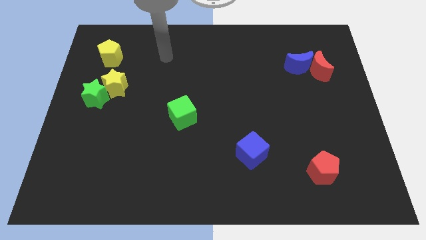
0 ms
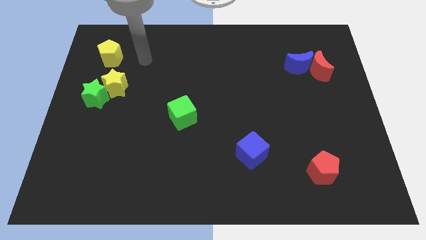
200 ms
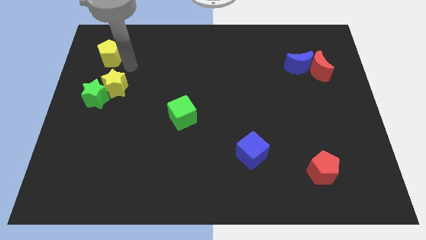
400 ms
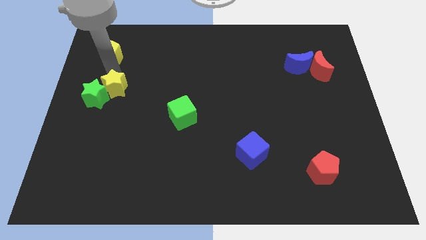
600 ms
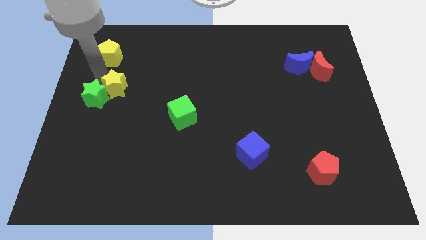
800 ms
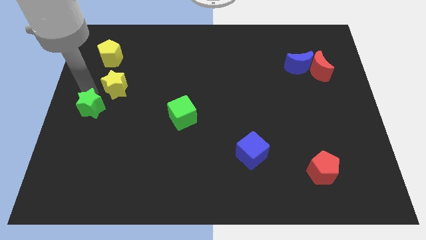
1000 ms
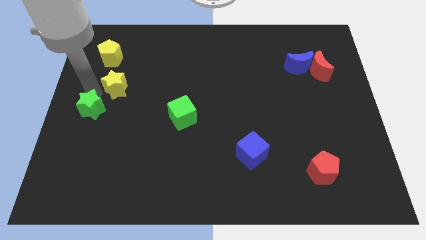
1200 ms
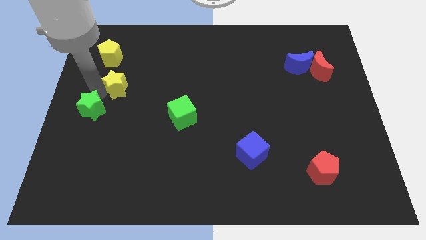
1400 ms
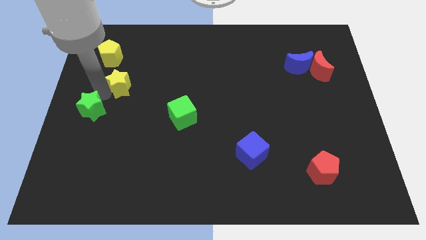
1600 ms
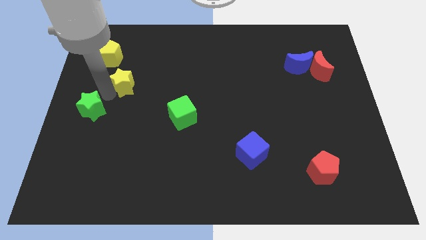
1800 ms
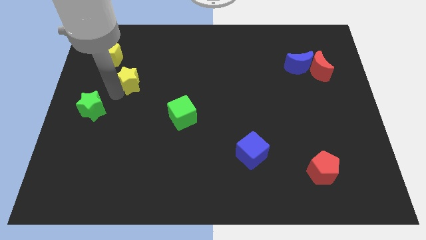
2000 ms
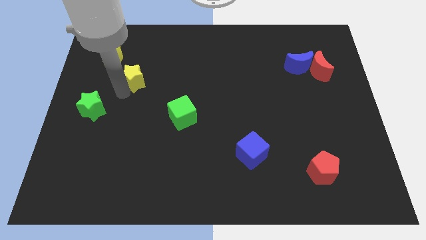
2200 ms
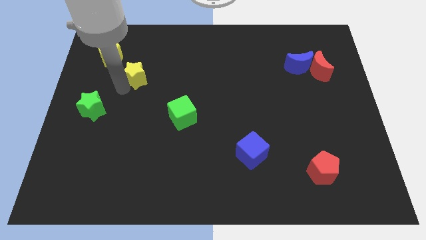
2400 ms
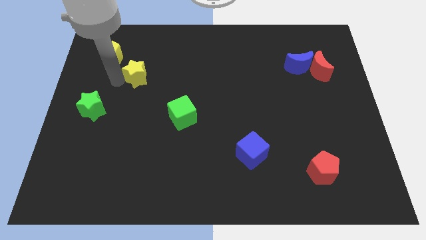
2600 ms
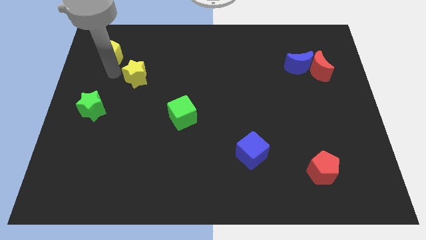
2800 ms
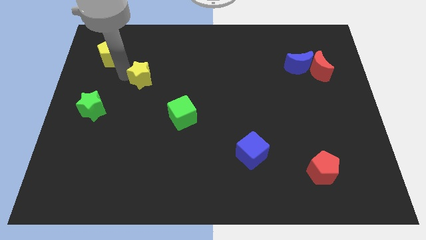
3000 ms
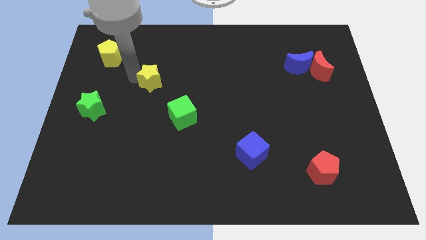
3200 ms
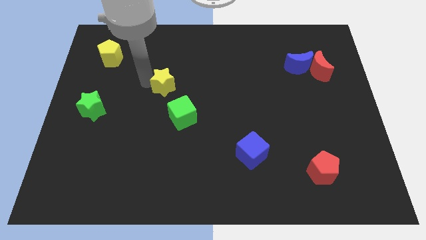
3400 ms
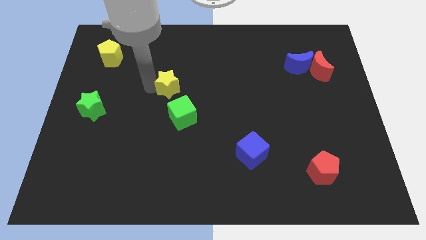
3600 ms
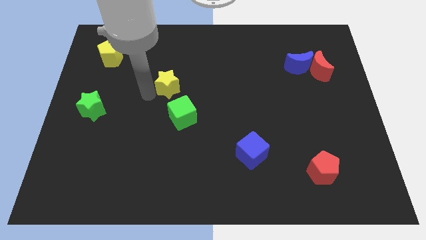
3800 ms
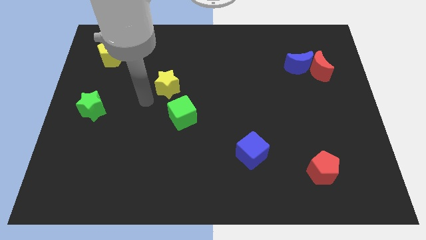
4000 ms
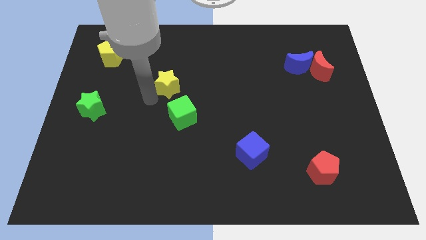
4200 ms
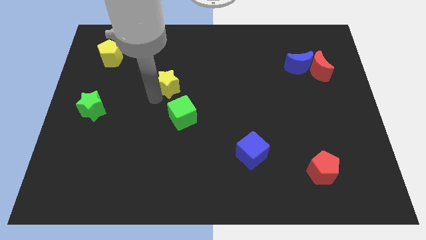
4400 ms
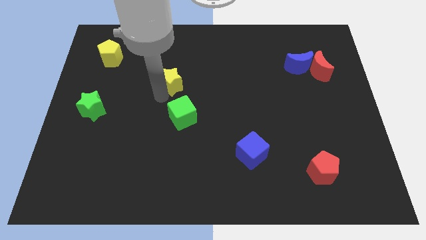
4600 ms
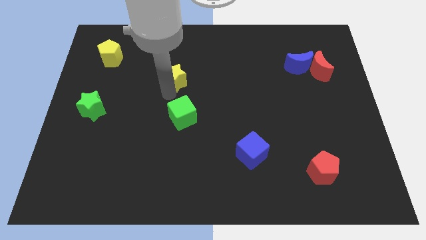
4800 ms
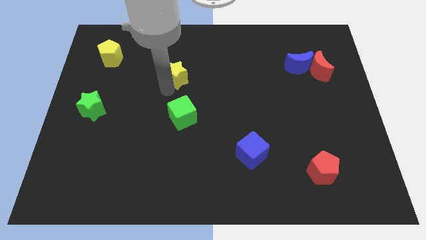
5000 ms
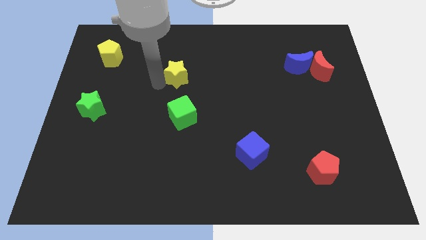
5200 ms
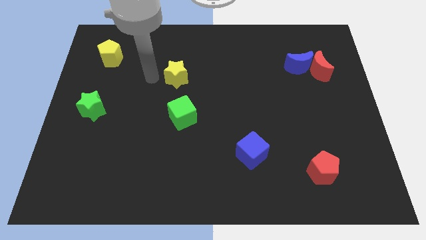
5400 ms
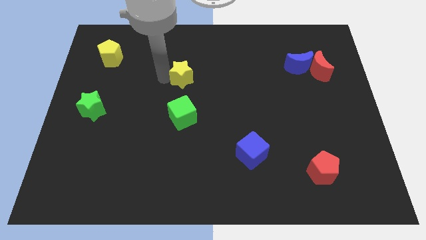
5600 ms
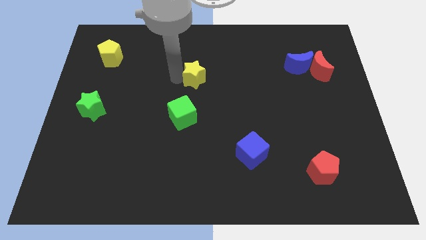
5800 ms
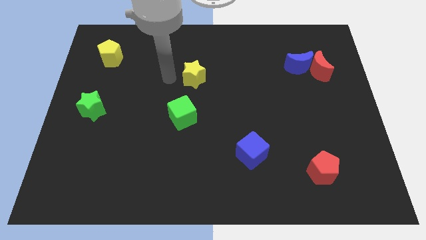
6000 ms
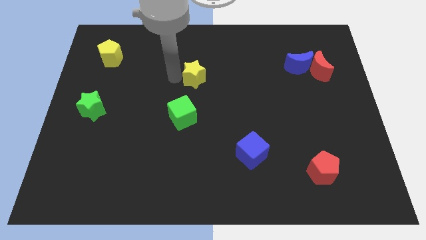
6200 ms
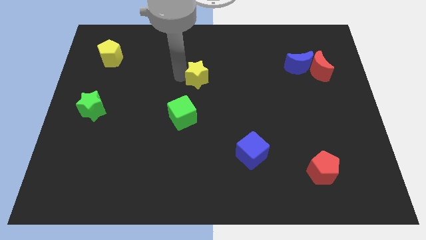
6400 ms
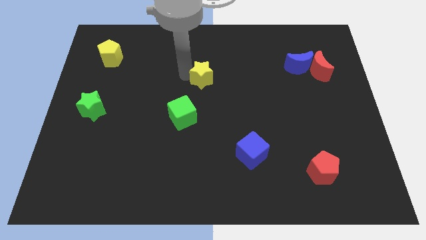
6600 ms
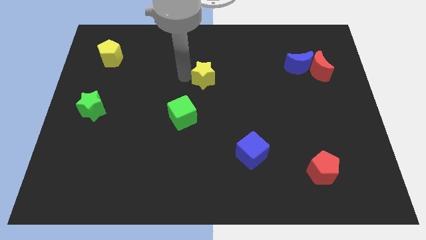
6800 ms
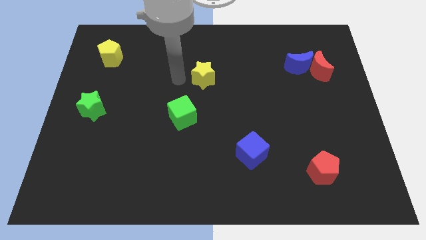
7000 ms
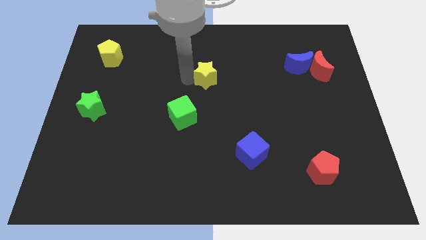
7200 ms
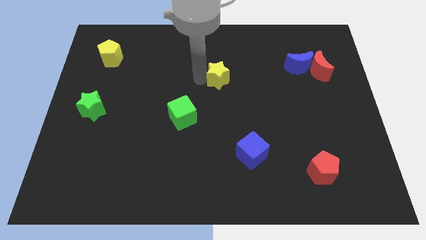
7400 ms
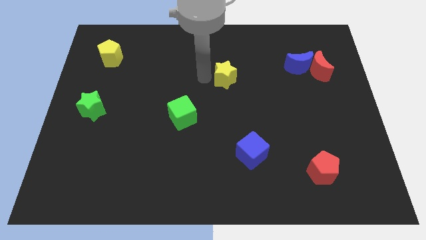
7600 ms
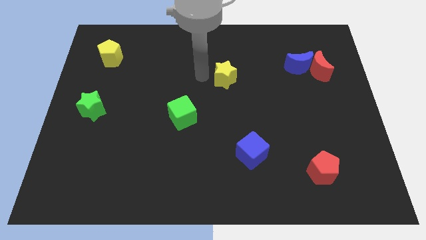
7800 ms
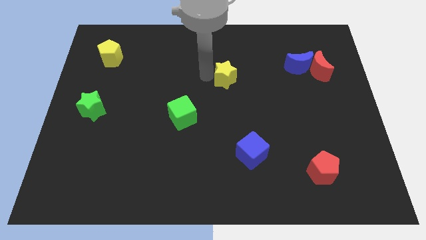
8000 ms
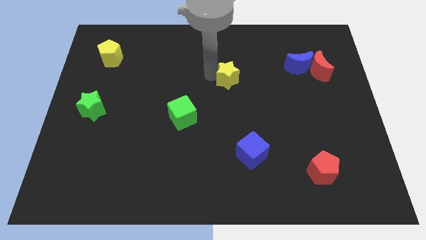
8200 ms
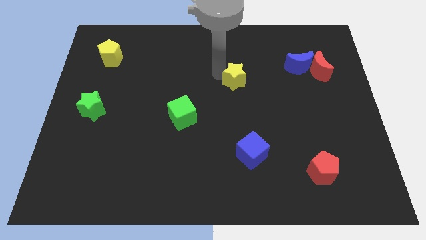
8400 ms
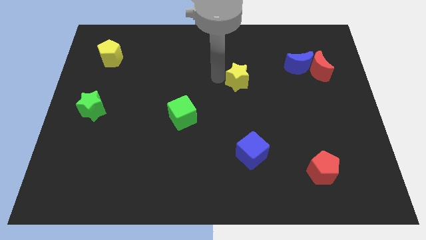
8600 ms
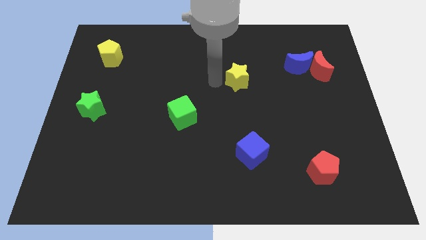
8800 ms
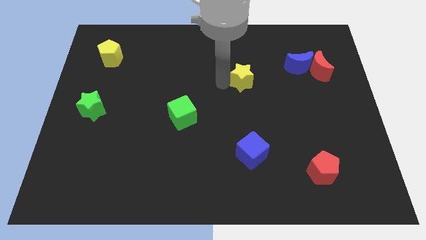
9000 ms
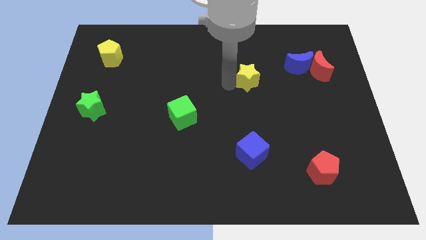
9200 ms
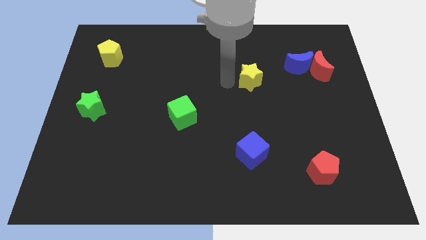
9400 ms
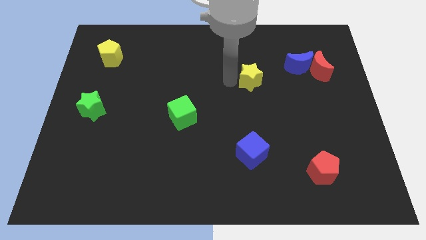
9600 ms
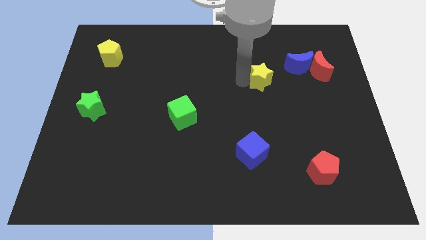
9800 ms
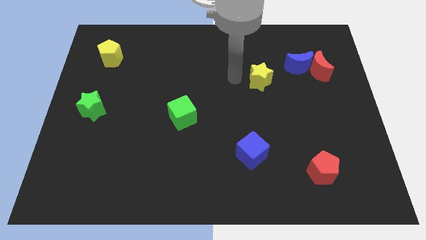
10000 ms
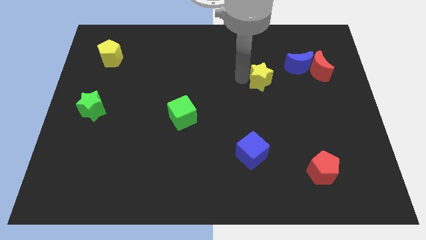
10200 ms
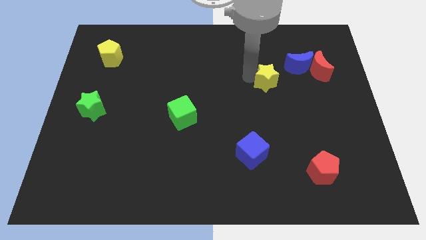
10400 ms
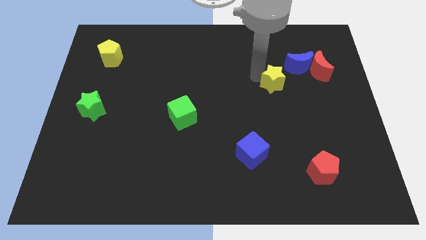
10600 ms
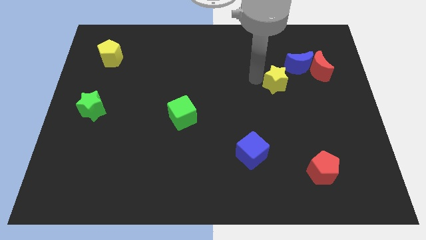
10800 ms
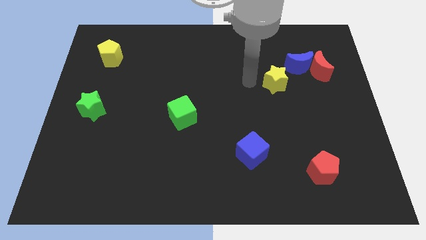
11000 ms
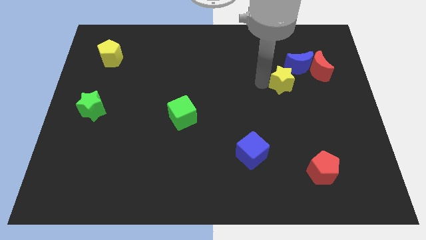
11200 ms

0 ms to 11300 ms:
push the yellow star to the bottom left side of the red moon

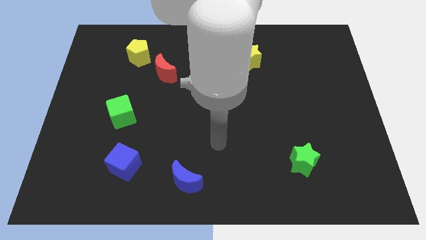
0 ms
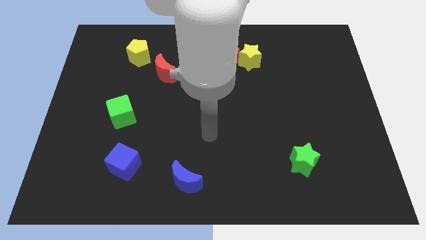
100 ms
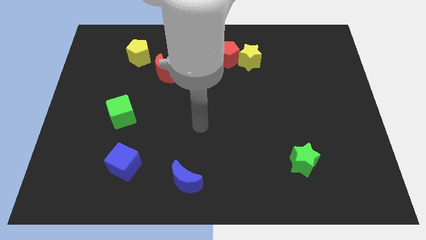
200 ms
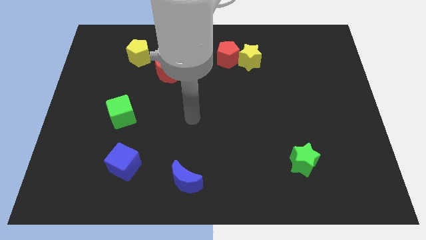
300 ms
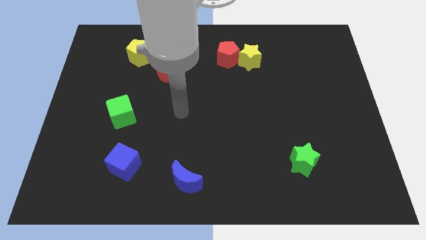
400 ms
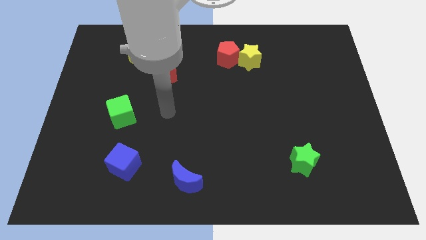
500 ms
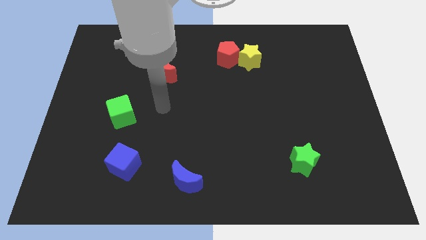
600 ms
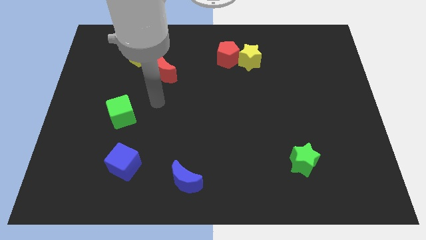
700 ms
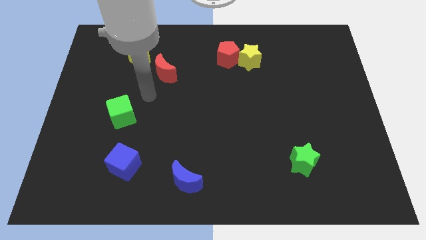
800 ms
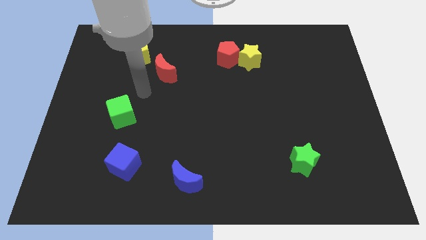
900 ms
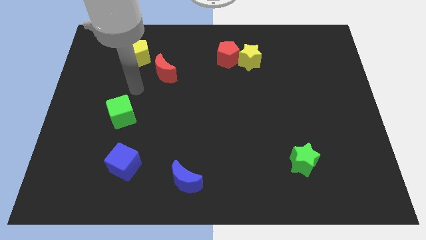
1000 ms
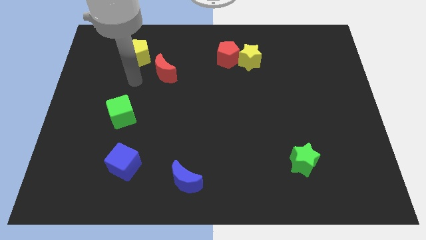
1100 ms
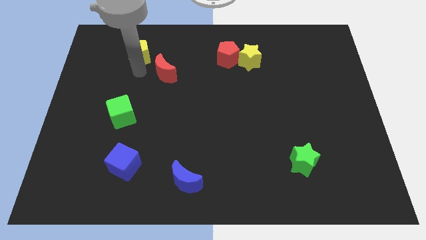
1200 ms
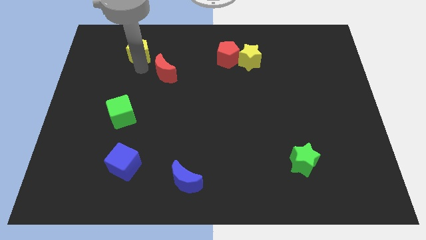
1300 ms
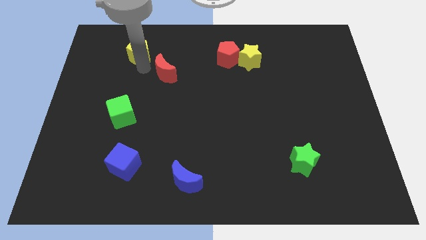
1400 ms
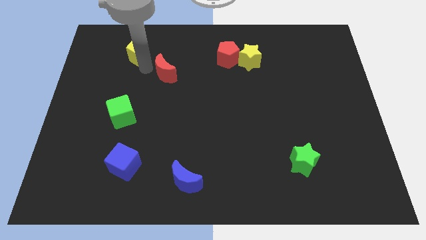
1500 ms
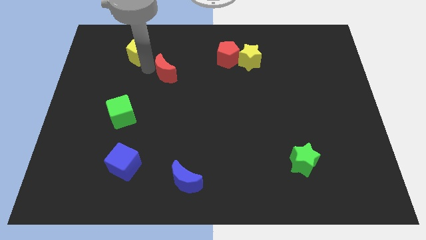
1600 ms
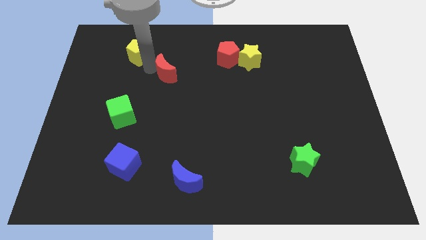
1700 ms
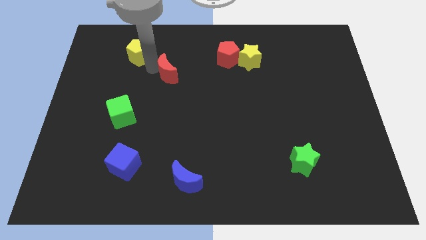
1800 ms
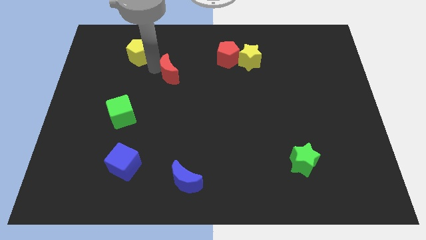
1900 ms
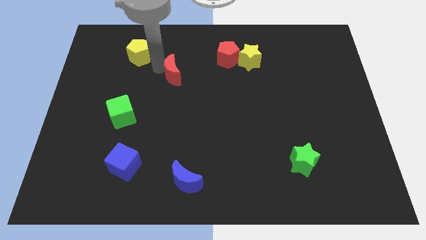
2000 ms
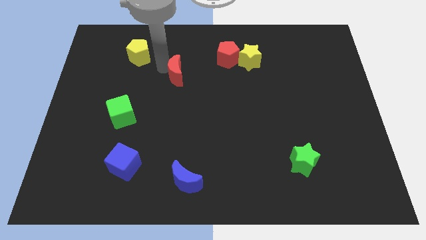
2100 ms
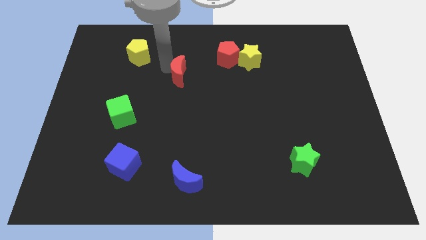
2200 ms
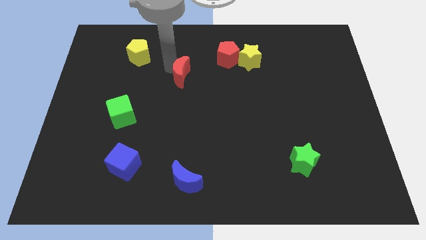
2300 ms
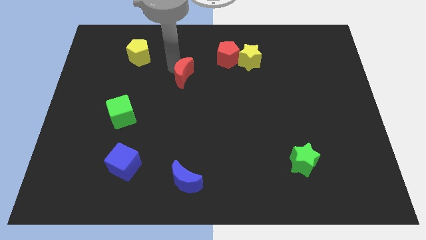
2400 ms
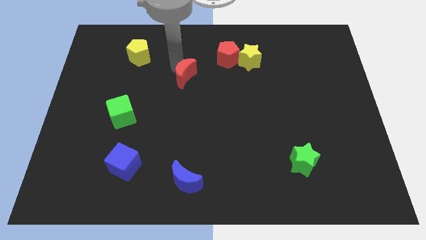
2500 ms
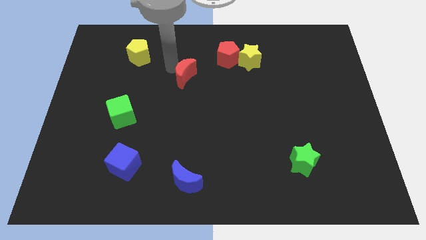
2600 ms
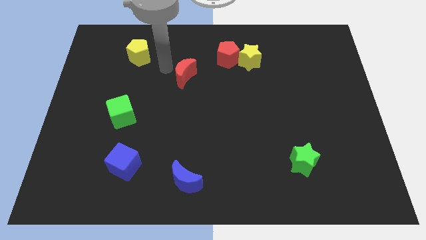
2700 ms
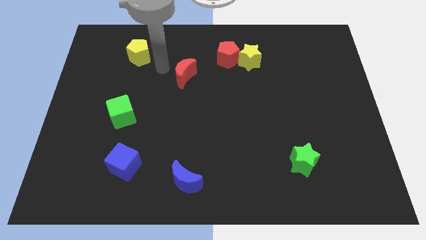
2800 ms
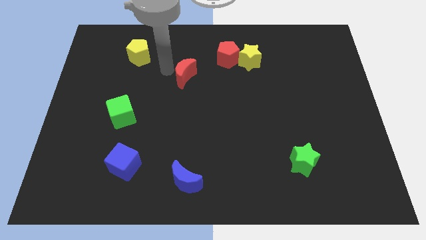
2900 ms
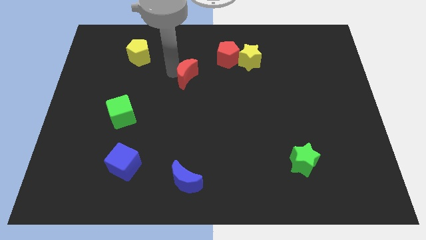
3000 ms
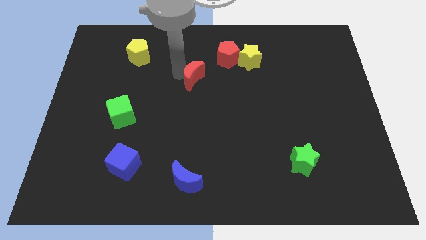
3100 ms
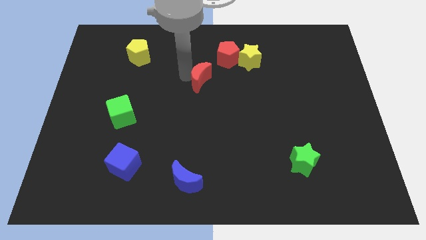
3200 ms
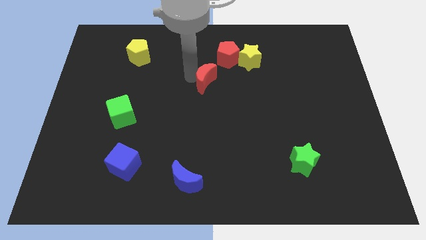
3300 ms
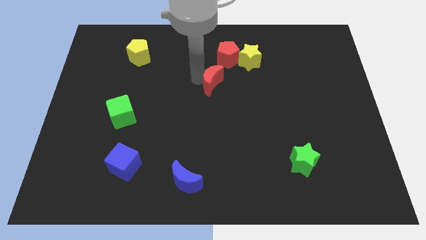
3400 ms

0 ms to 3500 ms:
move the red moon to the bottom side of the red pentagon
